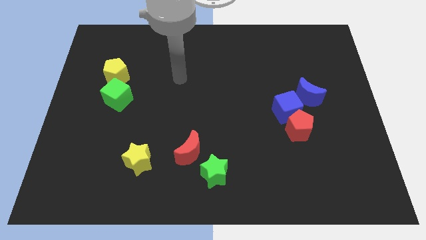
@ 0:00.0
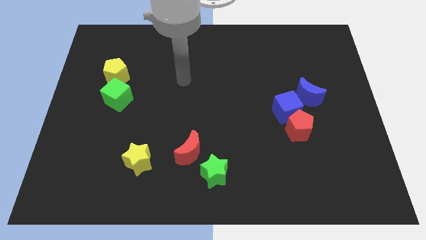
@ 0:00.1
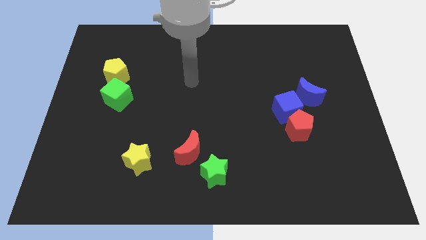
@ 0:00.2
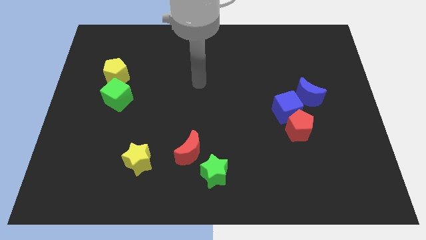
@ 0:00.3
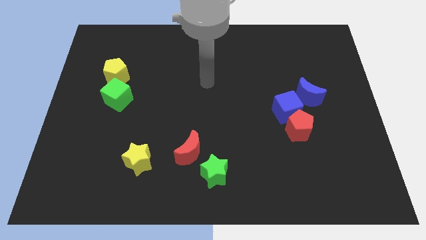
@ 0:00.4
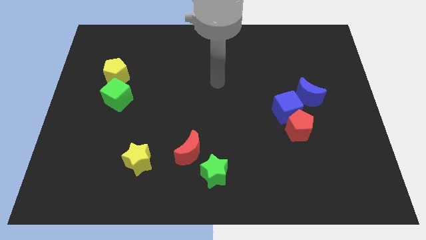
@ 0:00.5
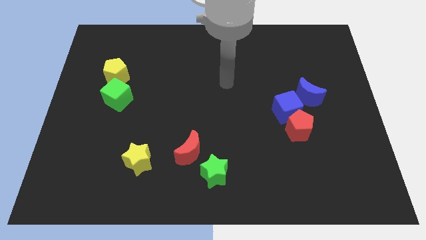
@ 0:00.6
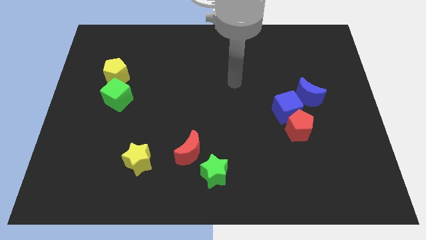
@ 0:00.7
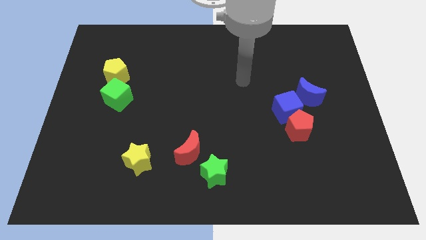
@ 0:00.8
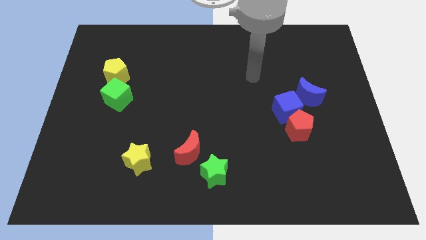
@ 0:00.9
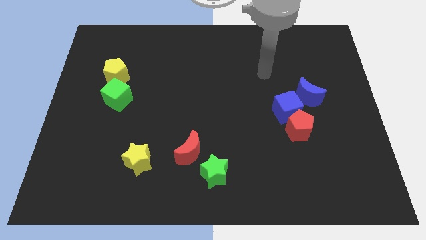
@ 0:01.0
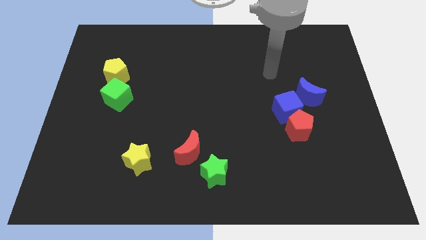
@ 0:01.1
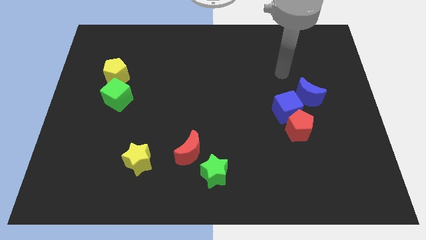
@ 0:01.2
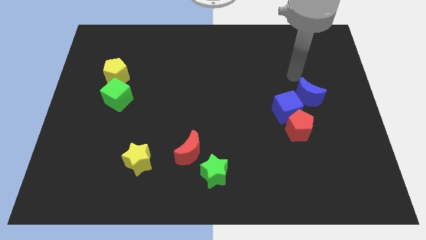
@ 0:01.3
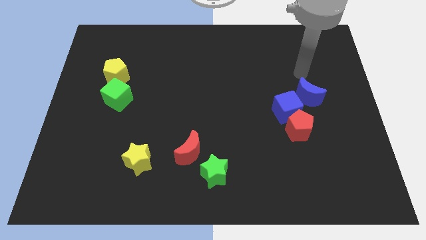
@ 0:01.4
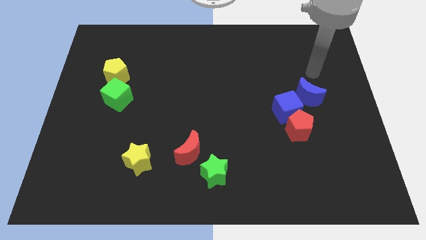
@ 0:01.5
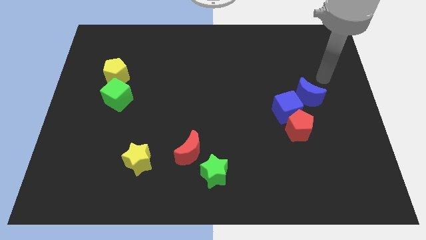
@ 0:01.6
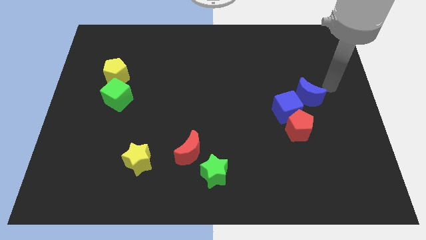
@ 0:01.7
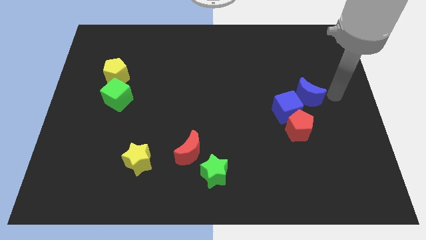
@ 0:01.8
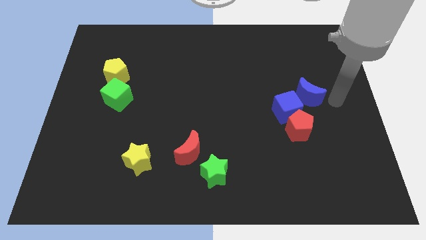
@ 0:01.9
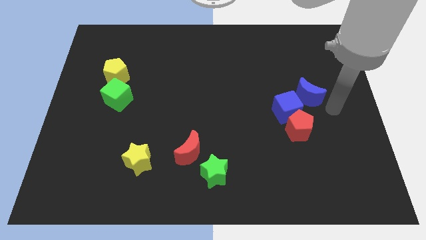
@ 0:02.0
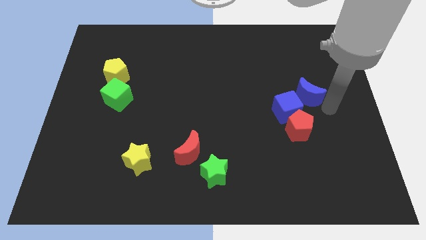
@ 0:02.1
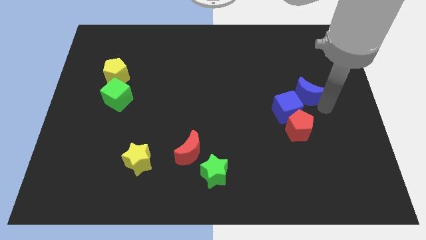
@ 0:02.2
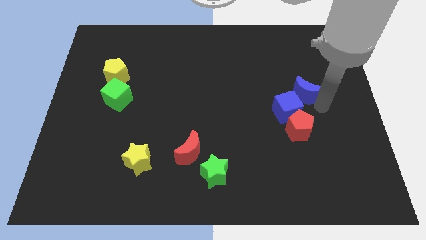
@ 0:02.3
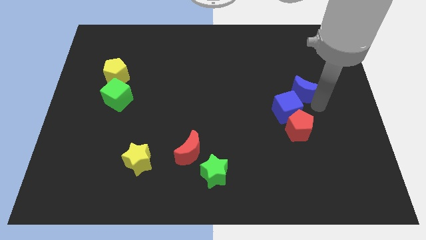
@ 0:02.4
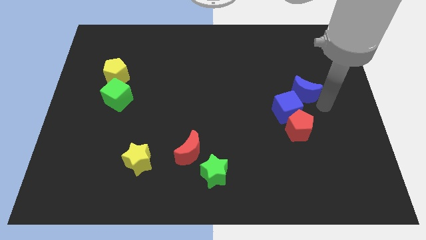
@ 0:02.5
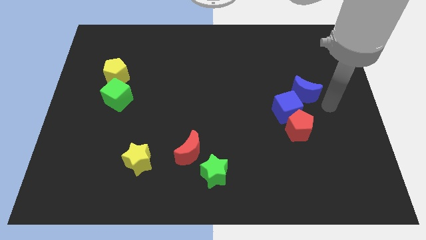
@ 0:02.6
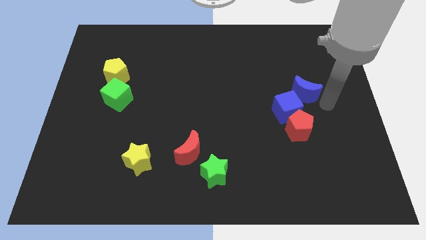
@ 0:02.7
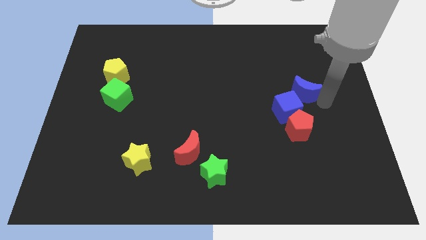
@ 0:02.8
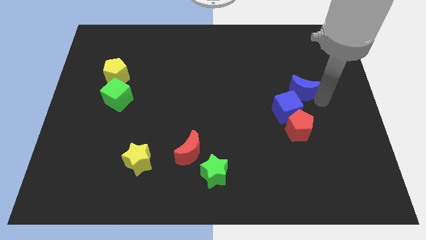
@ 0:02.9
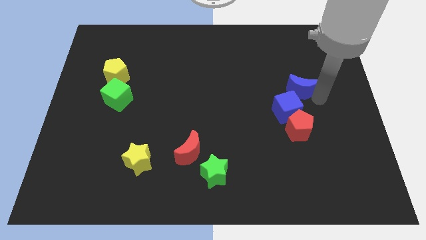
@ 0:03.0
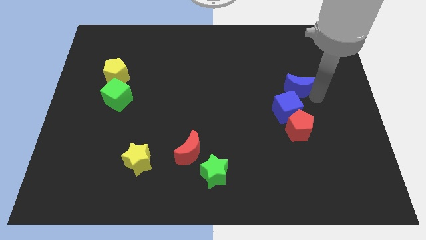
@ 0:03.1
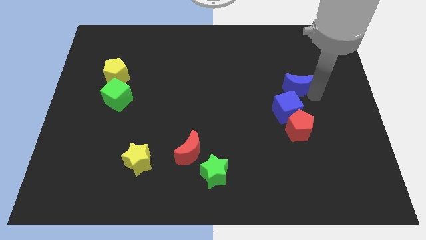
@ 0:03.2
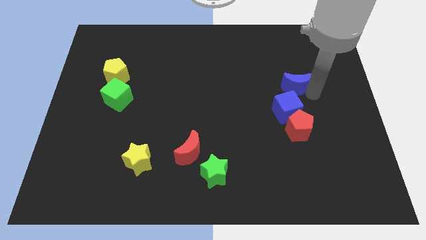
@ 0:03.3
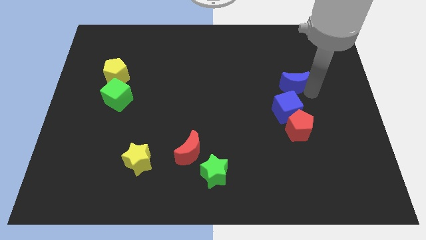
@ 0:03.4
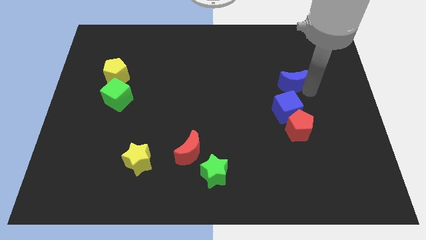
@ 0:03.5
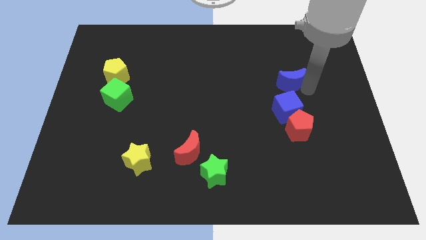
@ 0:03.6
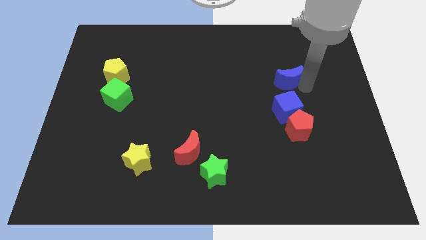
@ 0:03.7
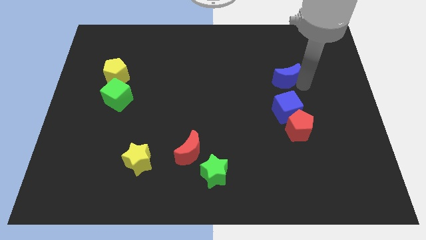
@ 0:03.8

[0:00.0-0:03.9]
push the blue moon up and then to the left a little bit

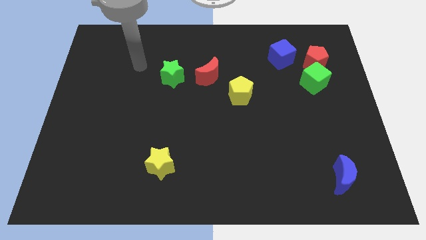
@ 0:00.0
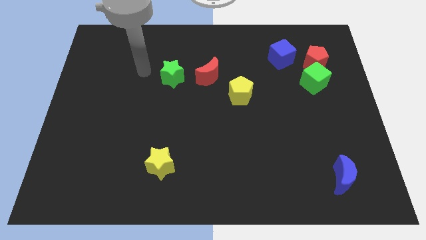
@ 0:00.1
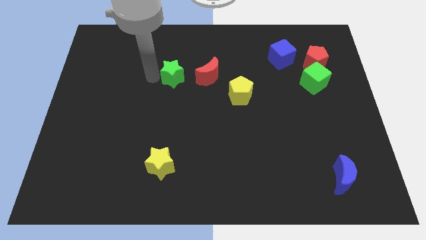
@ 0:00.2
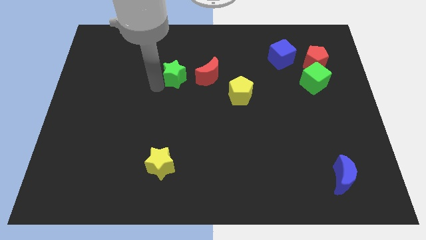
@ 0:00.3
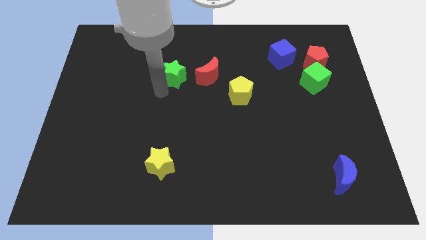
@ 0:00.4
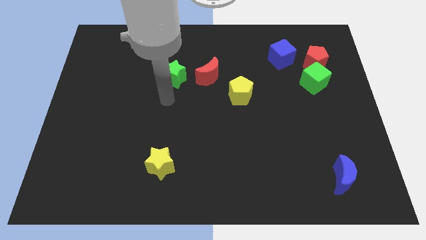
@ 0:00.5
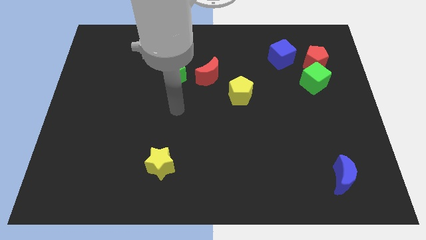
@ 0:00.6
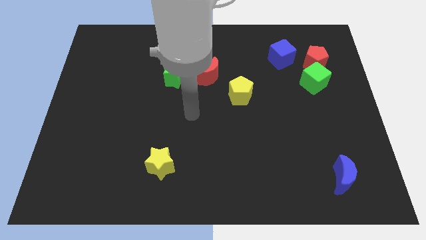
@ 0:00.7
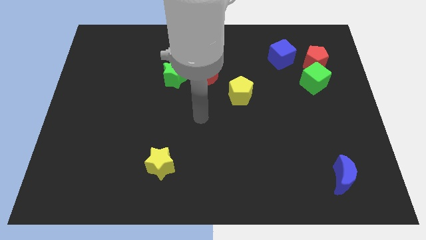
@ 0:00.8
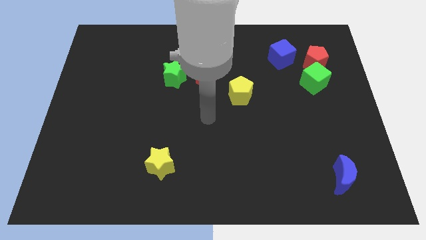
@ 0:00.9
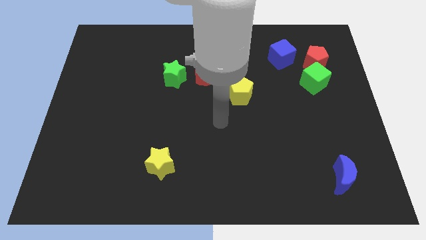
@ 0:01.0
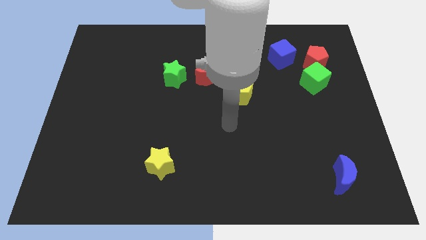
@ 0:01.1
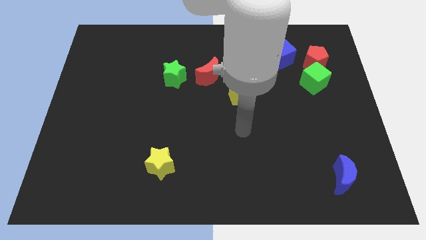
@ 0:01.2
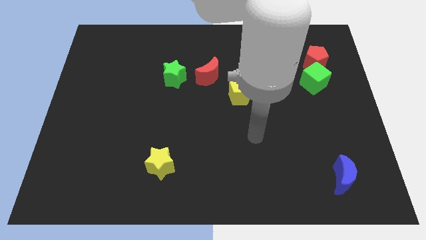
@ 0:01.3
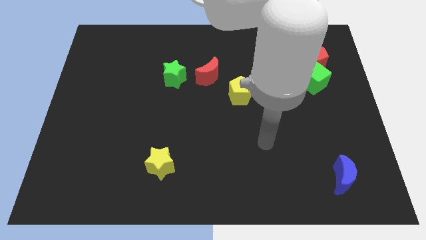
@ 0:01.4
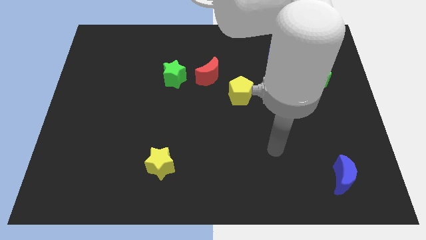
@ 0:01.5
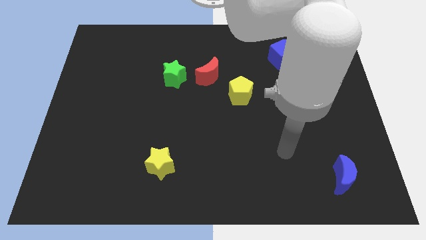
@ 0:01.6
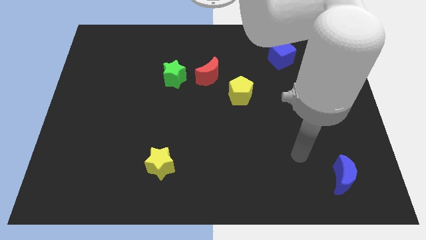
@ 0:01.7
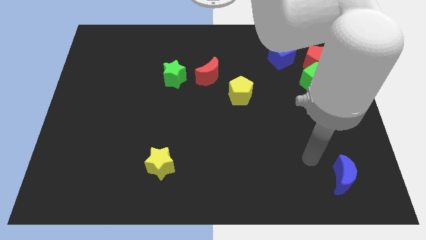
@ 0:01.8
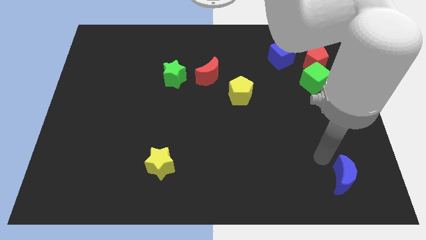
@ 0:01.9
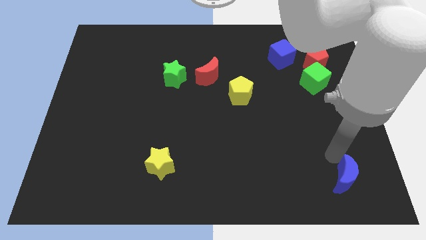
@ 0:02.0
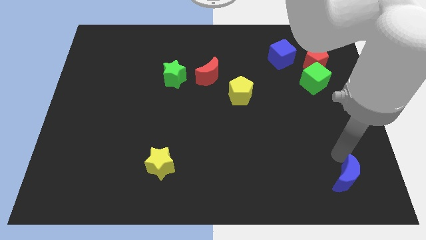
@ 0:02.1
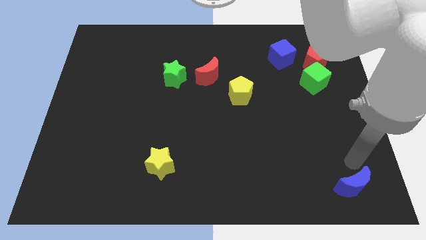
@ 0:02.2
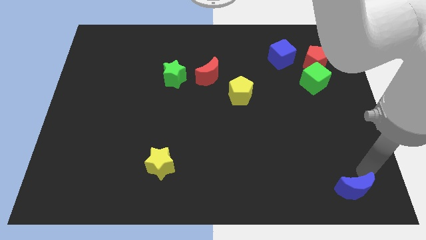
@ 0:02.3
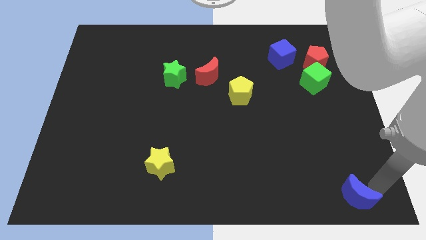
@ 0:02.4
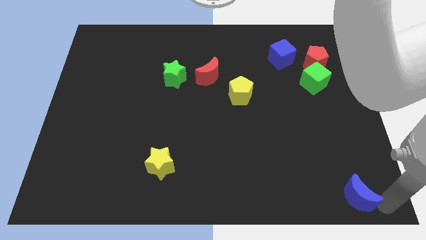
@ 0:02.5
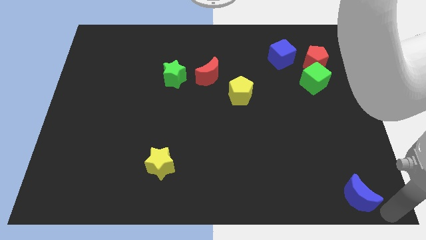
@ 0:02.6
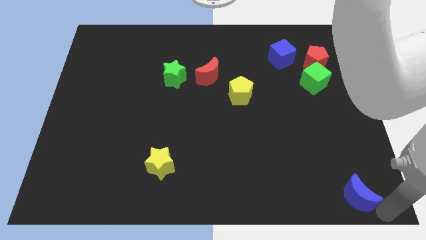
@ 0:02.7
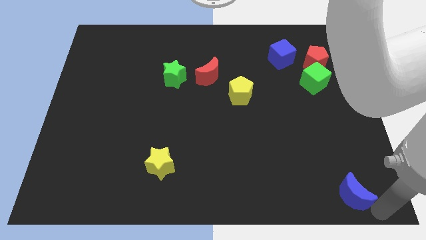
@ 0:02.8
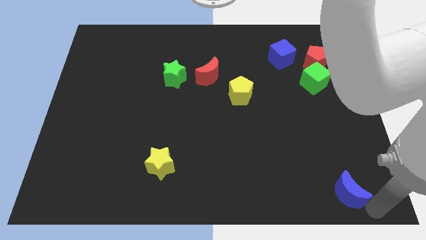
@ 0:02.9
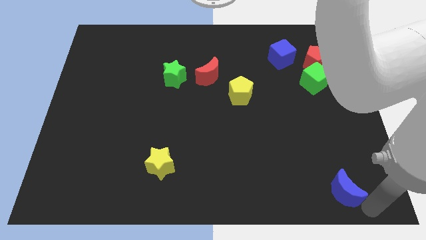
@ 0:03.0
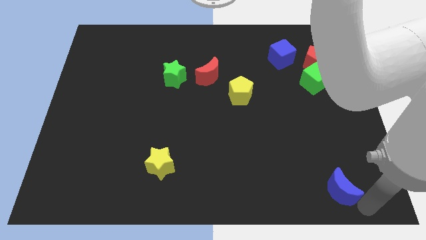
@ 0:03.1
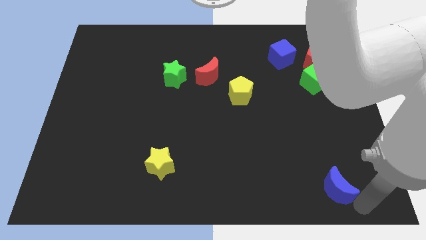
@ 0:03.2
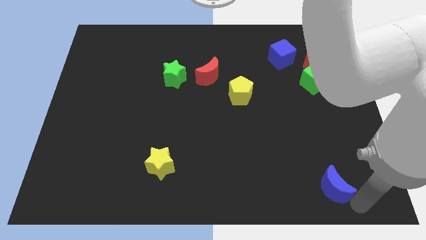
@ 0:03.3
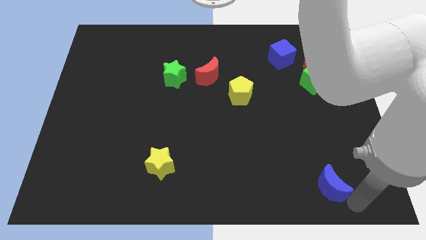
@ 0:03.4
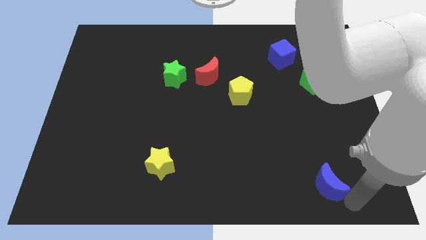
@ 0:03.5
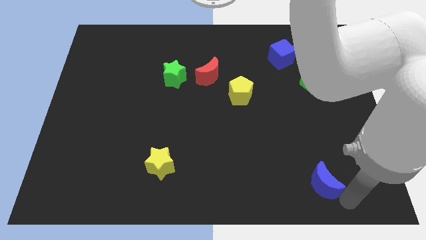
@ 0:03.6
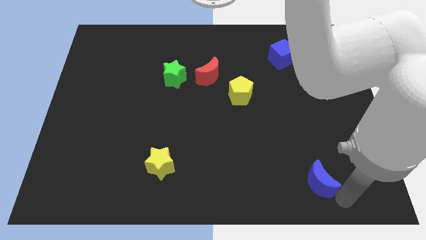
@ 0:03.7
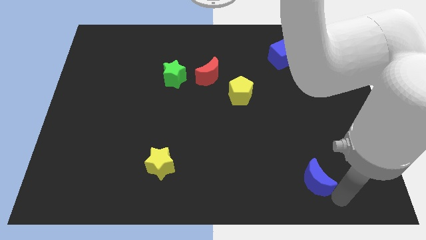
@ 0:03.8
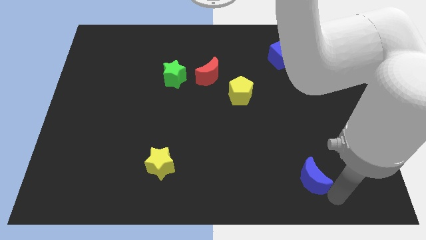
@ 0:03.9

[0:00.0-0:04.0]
push the blue moon somewhat to the left

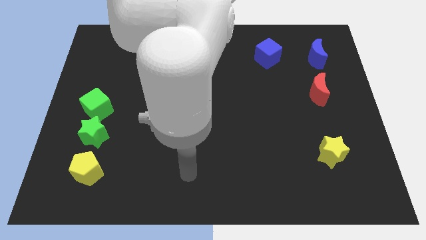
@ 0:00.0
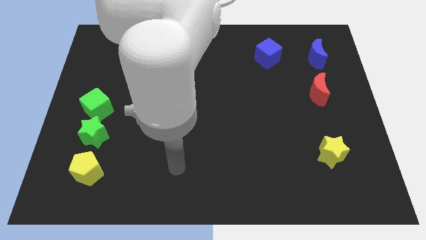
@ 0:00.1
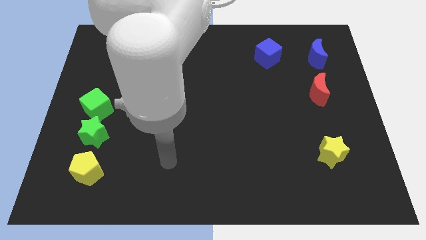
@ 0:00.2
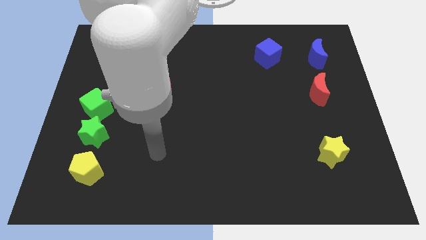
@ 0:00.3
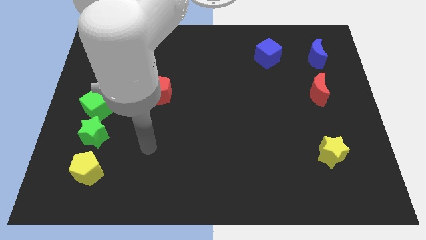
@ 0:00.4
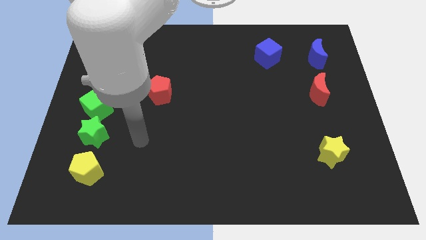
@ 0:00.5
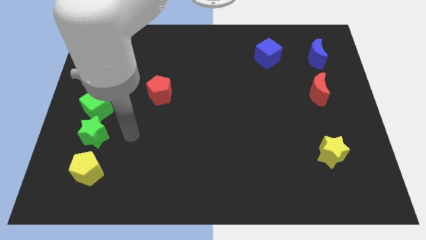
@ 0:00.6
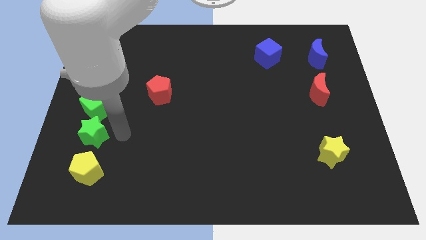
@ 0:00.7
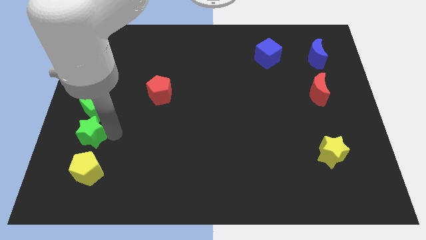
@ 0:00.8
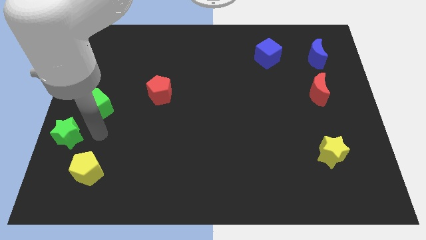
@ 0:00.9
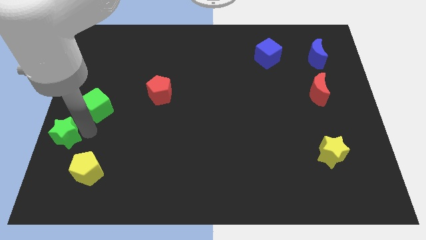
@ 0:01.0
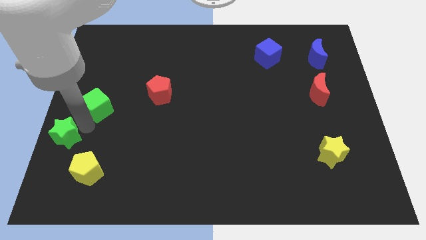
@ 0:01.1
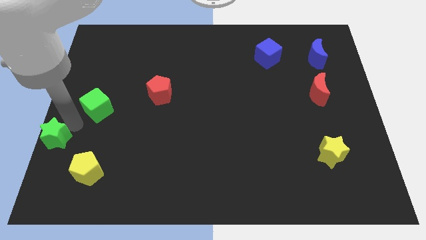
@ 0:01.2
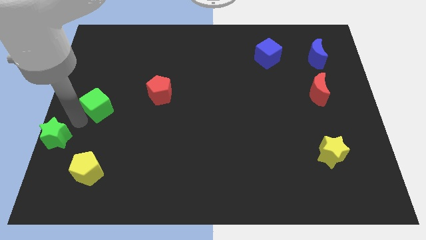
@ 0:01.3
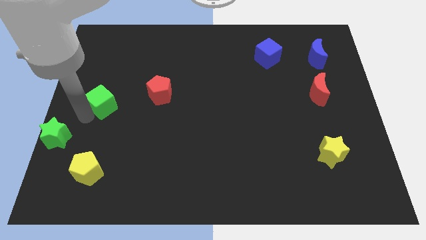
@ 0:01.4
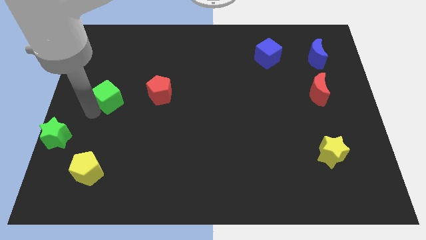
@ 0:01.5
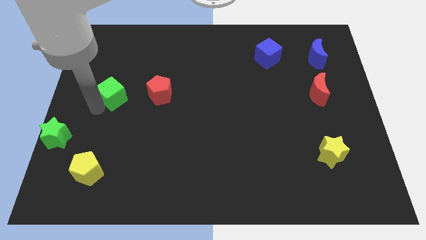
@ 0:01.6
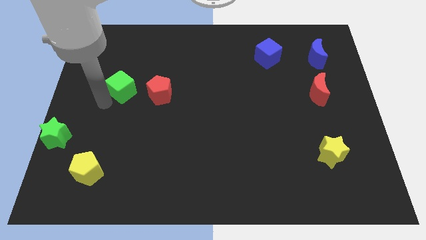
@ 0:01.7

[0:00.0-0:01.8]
slightly move the green cube diagonally upwards and right
